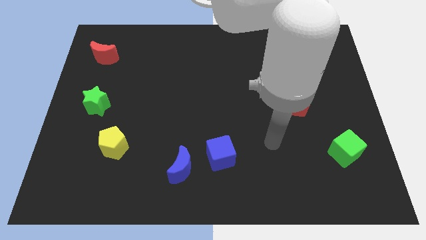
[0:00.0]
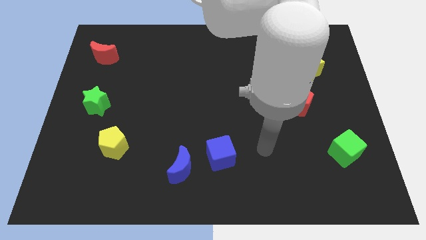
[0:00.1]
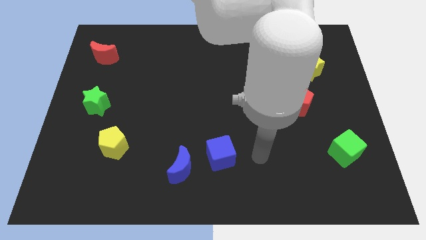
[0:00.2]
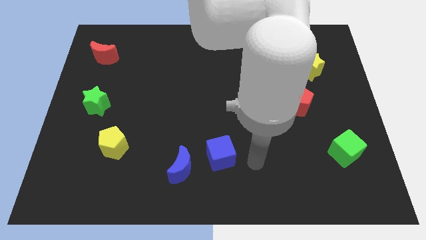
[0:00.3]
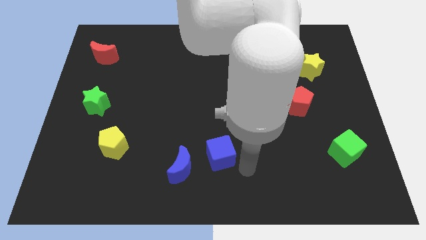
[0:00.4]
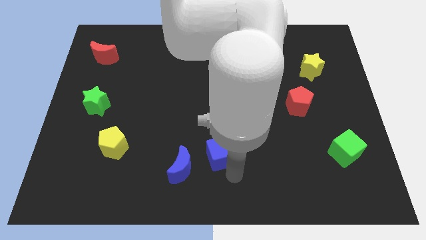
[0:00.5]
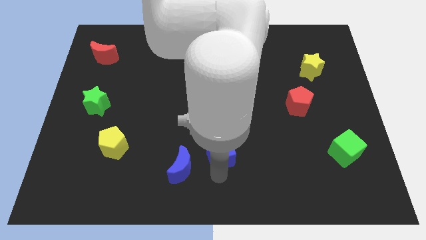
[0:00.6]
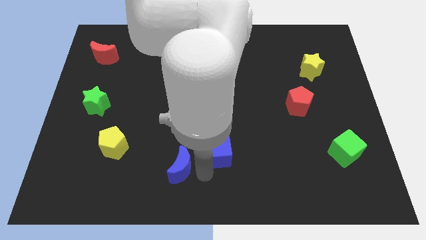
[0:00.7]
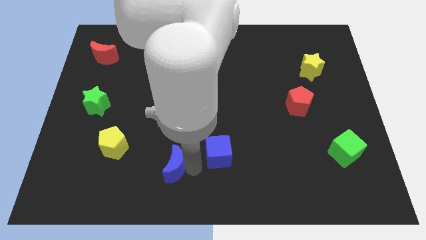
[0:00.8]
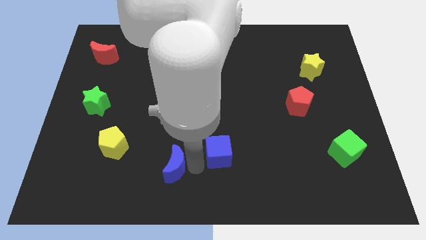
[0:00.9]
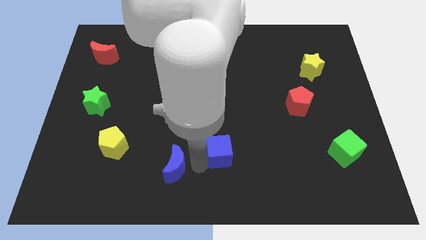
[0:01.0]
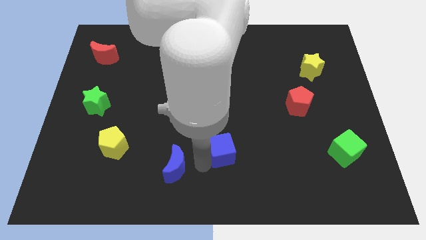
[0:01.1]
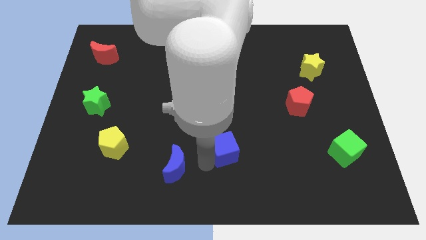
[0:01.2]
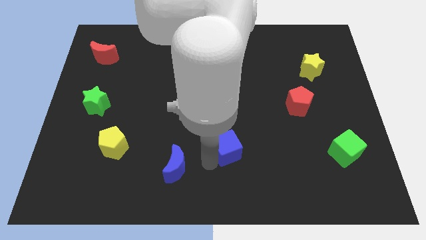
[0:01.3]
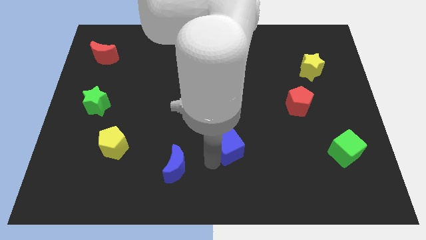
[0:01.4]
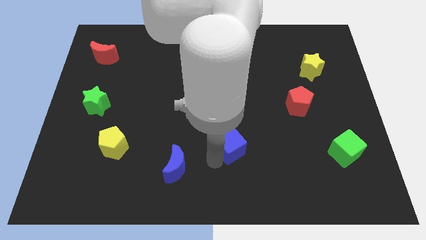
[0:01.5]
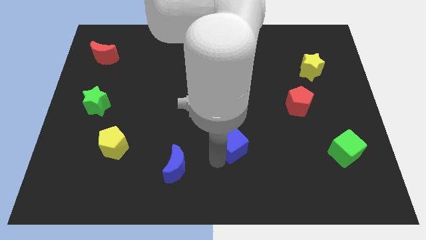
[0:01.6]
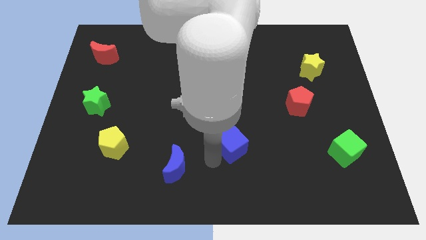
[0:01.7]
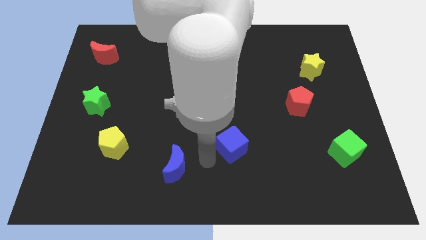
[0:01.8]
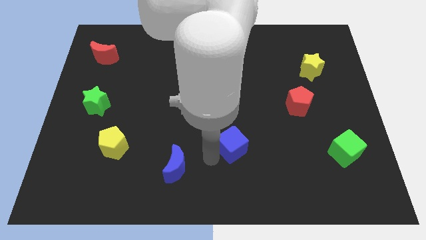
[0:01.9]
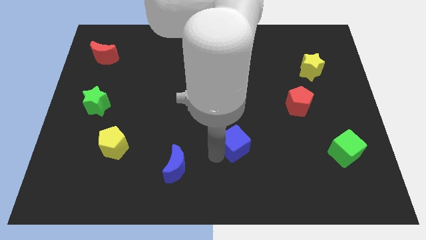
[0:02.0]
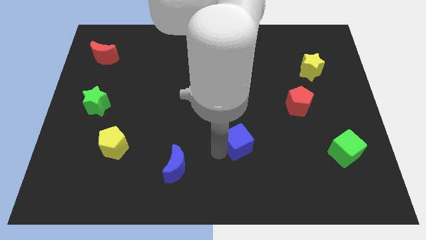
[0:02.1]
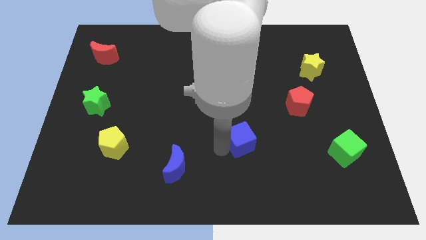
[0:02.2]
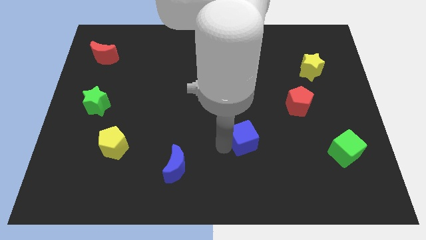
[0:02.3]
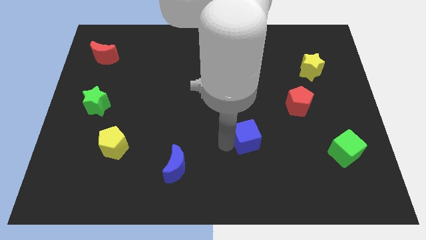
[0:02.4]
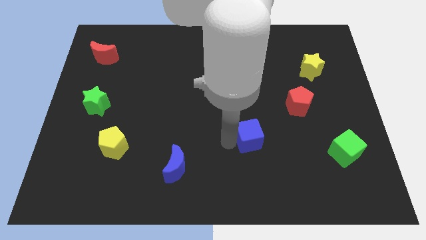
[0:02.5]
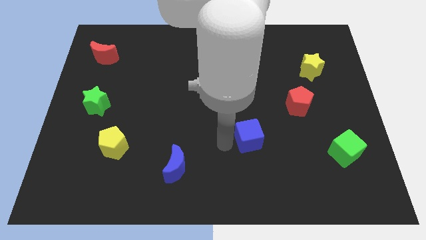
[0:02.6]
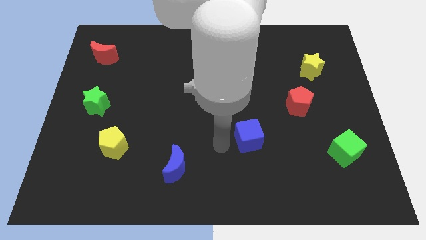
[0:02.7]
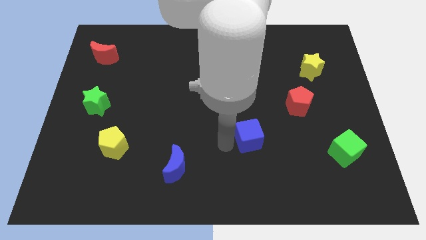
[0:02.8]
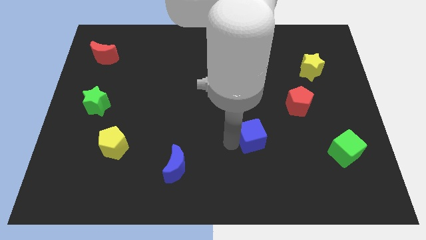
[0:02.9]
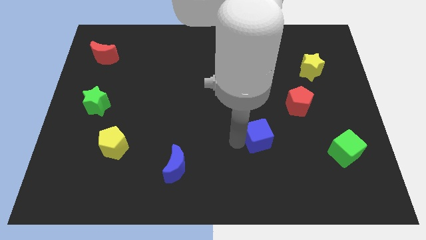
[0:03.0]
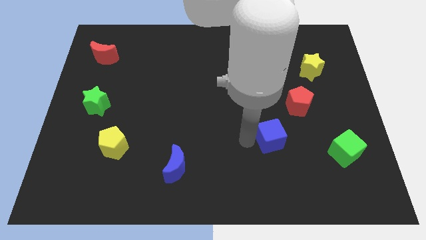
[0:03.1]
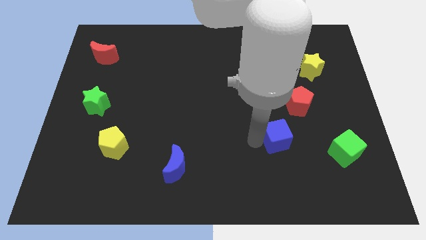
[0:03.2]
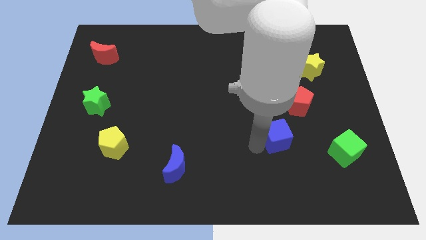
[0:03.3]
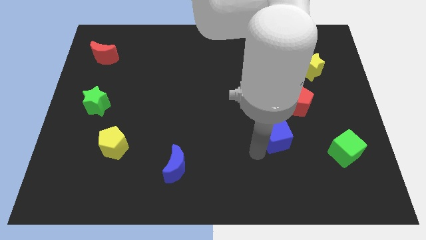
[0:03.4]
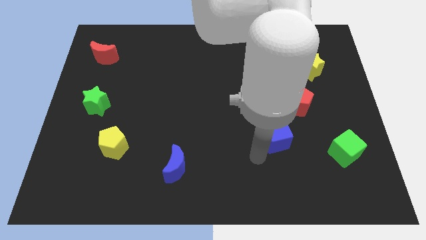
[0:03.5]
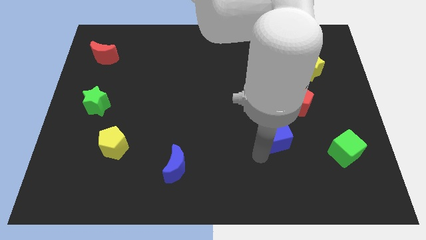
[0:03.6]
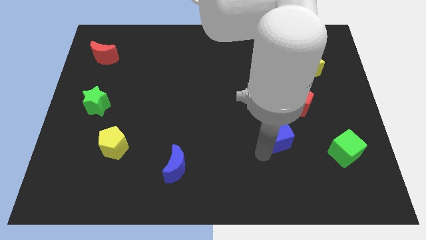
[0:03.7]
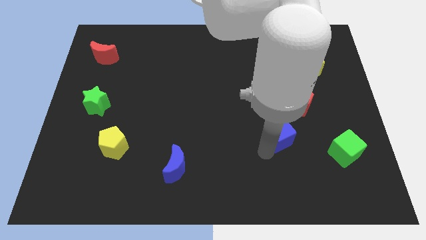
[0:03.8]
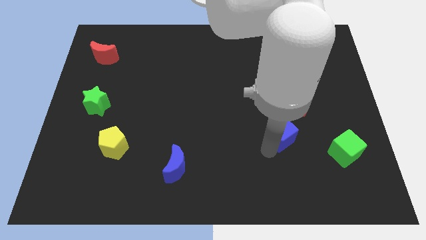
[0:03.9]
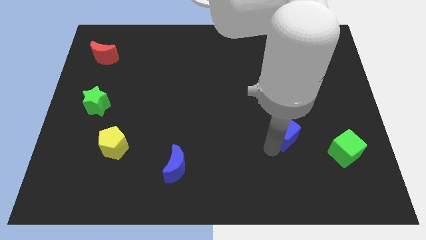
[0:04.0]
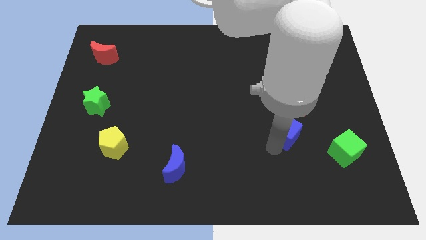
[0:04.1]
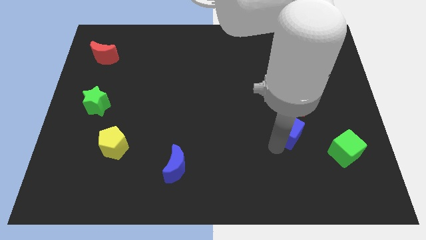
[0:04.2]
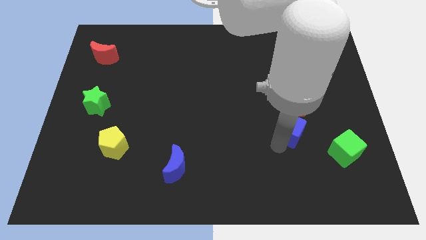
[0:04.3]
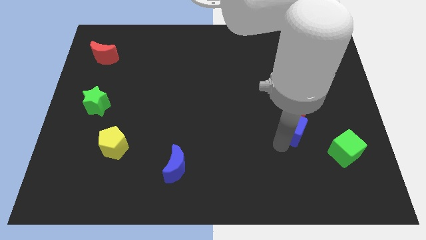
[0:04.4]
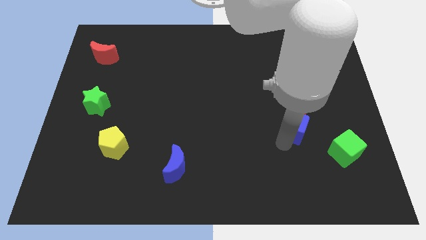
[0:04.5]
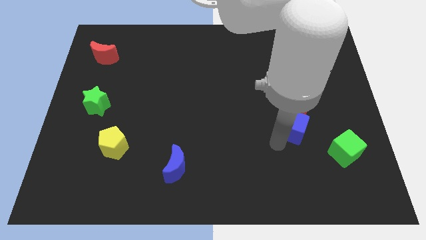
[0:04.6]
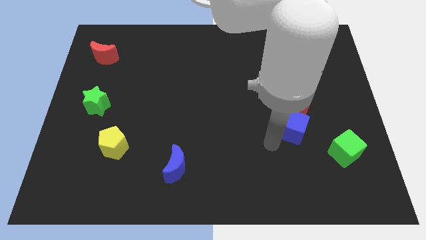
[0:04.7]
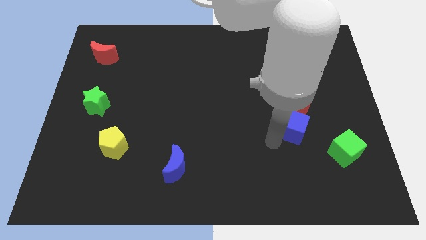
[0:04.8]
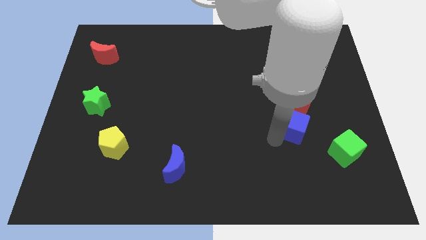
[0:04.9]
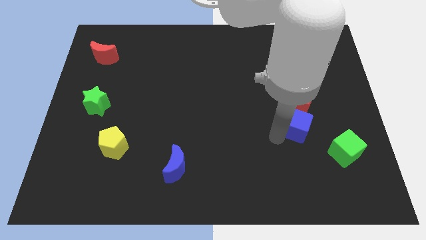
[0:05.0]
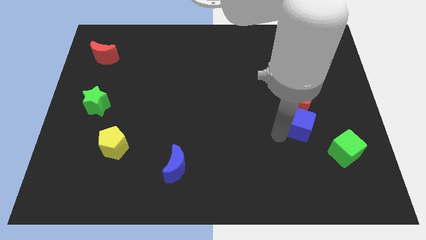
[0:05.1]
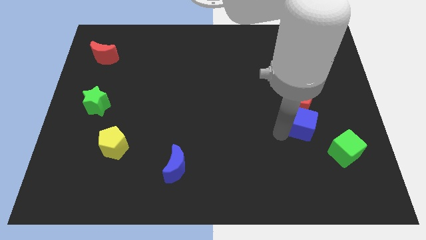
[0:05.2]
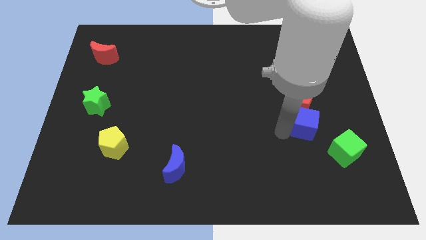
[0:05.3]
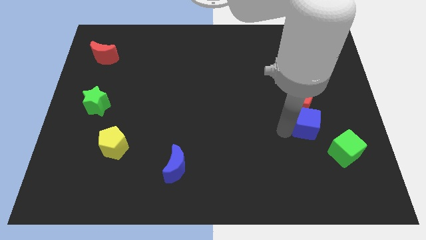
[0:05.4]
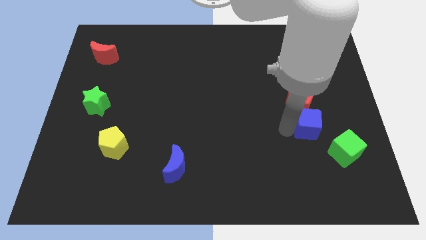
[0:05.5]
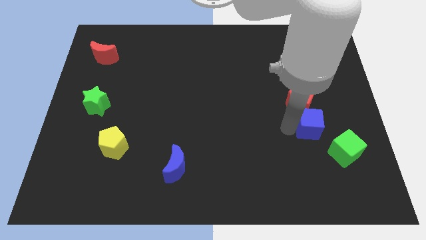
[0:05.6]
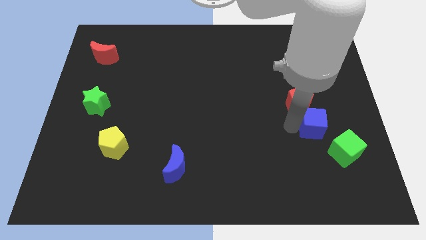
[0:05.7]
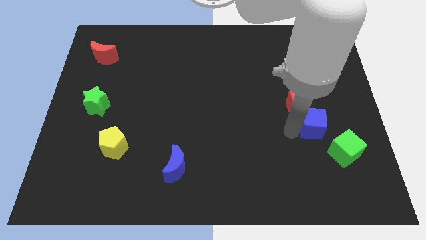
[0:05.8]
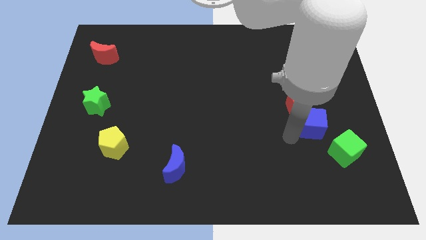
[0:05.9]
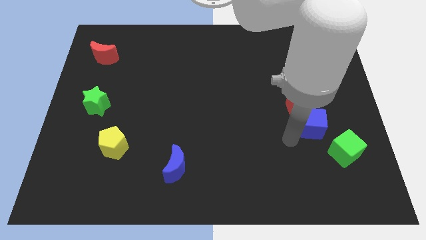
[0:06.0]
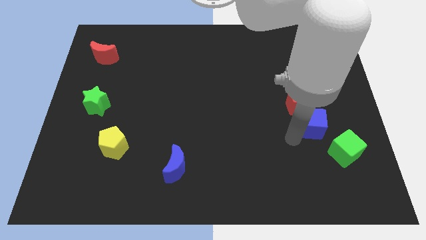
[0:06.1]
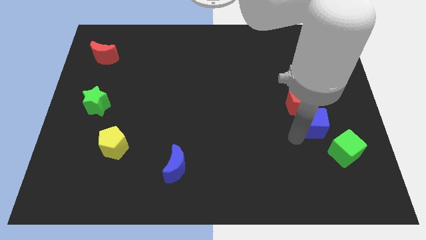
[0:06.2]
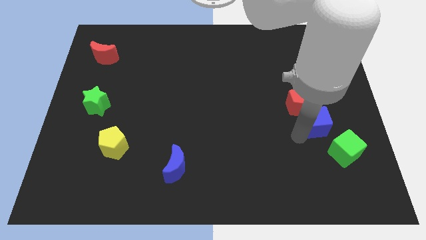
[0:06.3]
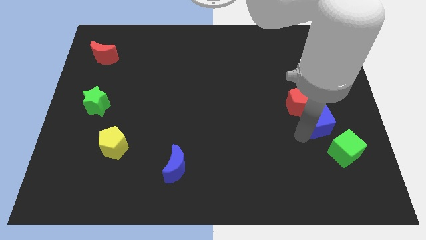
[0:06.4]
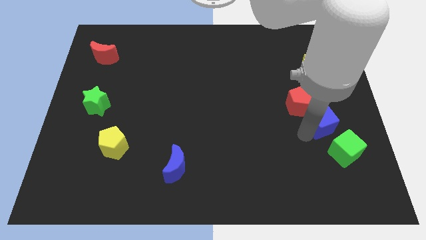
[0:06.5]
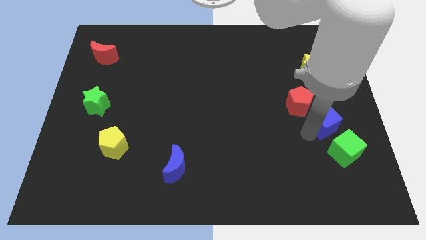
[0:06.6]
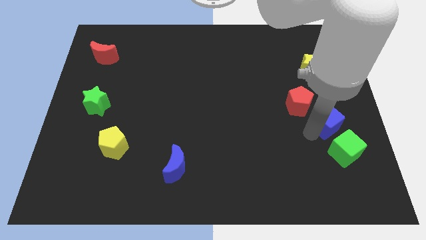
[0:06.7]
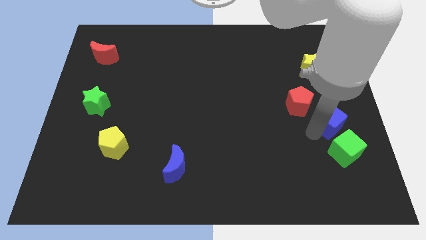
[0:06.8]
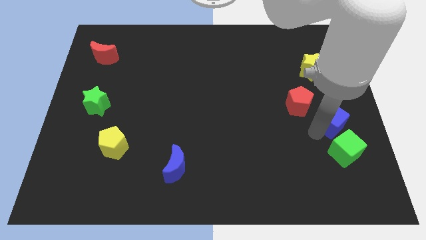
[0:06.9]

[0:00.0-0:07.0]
push the blue cube to the center right
